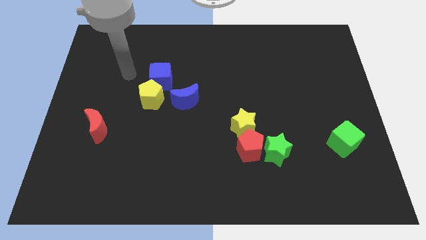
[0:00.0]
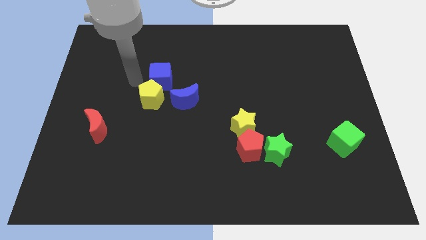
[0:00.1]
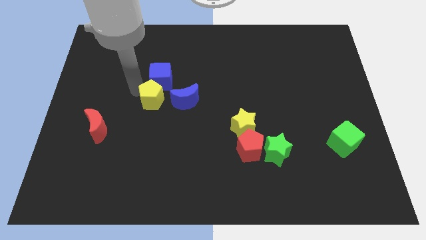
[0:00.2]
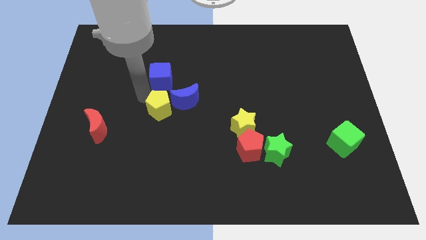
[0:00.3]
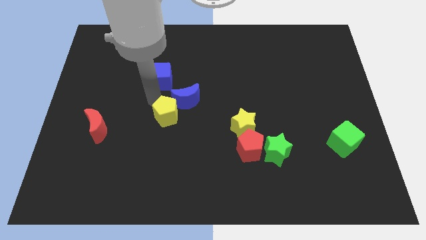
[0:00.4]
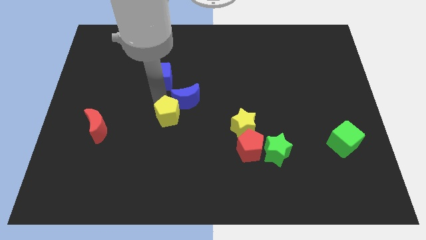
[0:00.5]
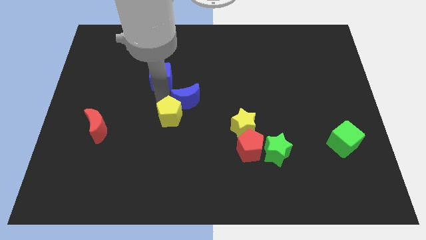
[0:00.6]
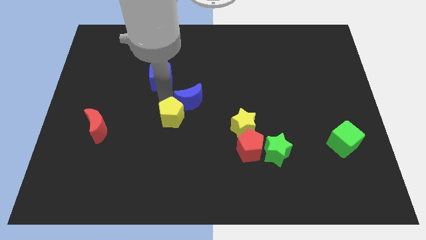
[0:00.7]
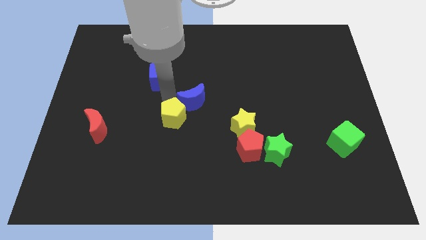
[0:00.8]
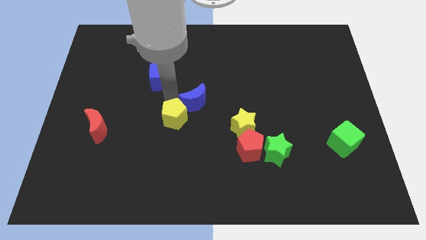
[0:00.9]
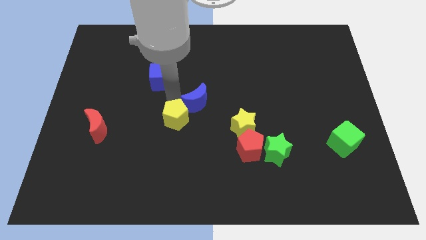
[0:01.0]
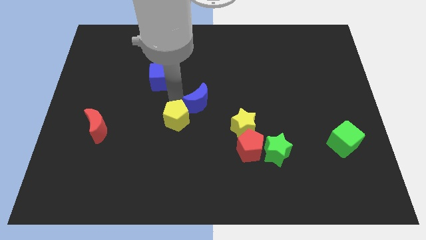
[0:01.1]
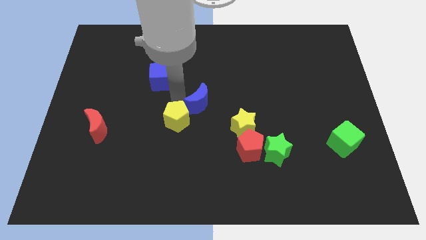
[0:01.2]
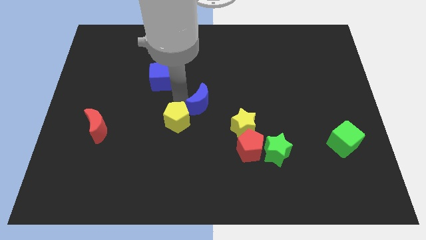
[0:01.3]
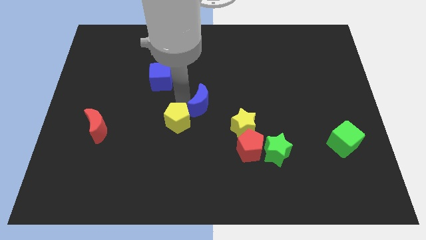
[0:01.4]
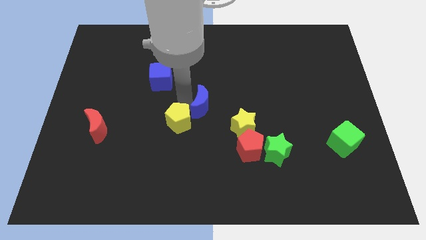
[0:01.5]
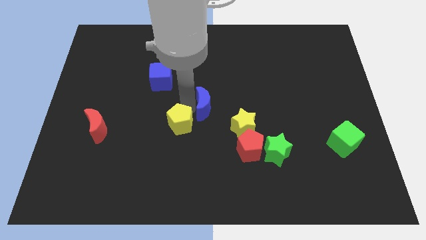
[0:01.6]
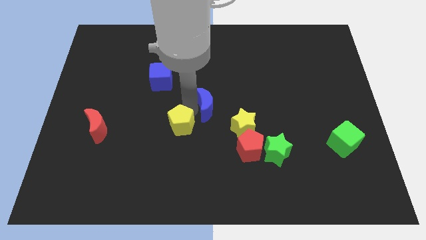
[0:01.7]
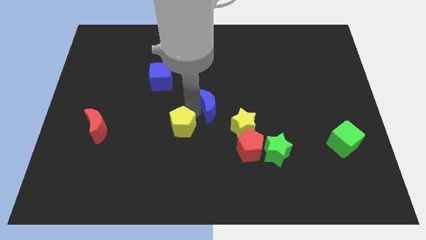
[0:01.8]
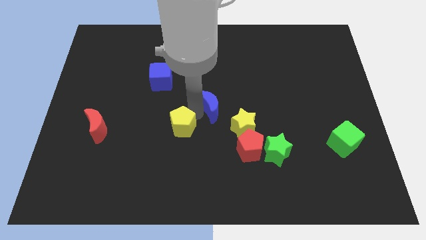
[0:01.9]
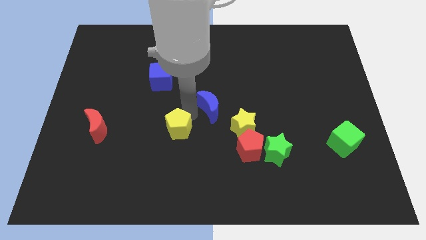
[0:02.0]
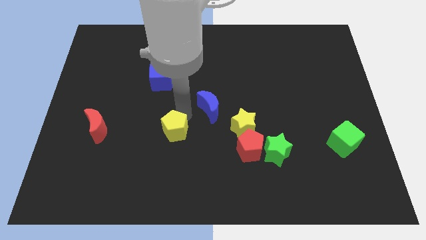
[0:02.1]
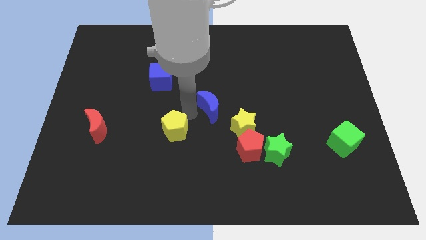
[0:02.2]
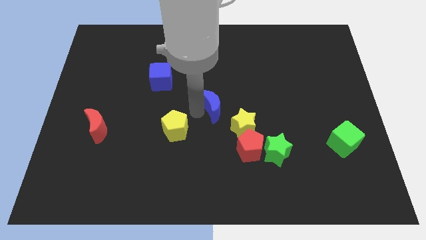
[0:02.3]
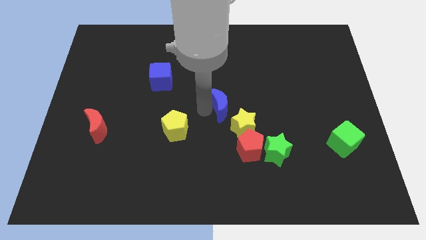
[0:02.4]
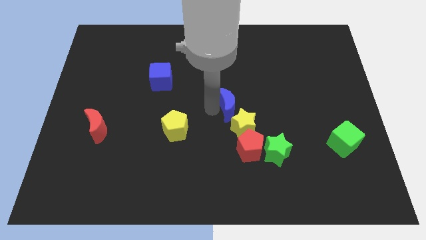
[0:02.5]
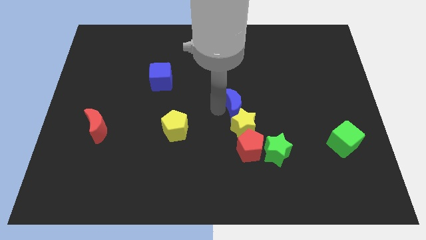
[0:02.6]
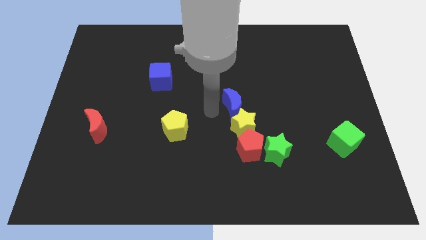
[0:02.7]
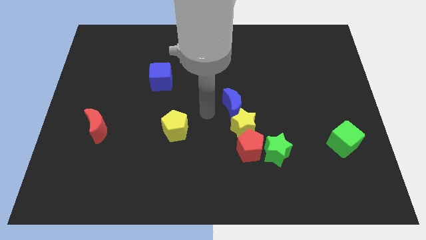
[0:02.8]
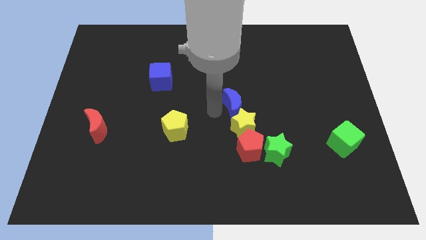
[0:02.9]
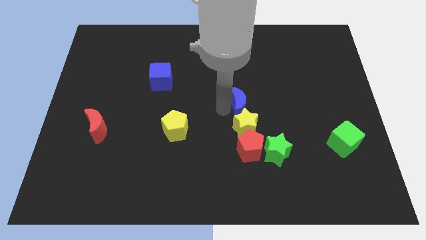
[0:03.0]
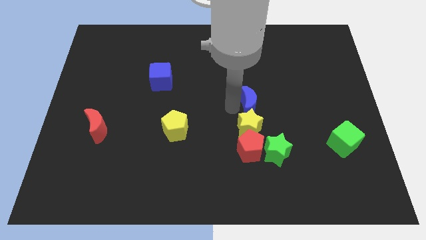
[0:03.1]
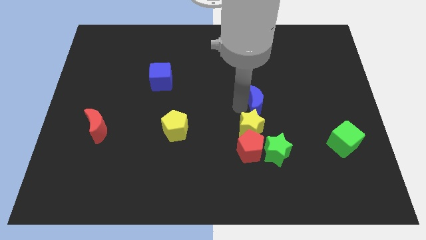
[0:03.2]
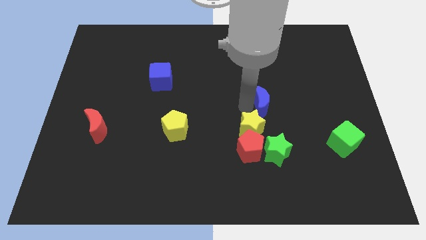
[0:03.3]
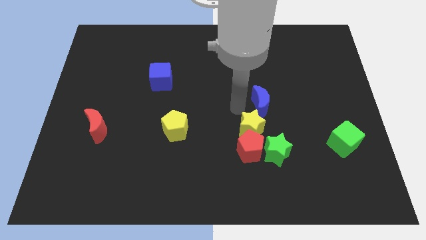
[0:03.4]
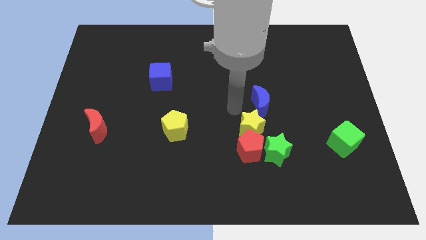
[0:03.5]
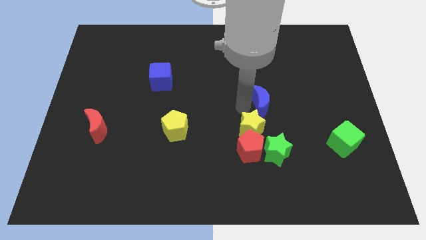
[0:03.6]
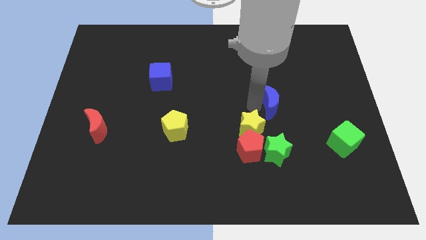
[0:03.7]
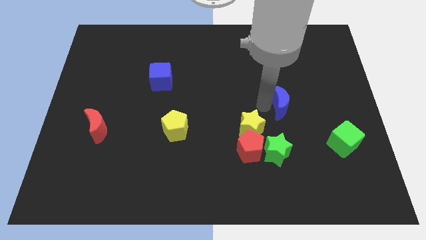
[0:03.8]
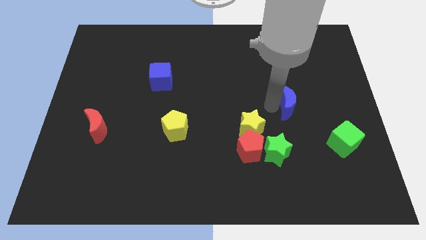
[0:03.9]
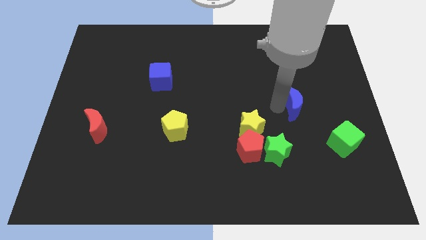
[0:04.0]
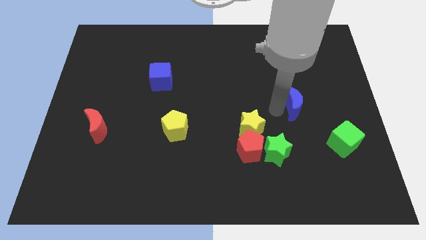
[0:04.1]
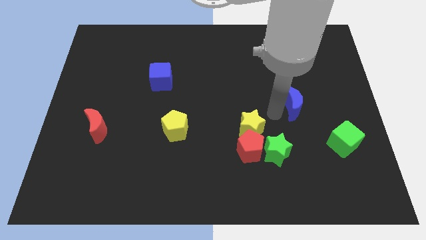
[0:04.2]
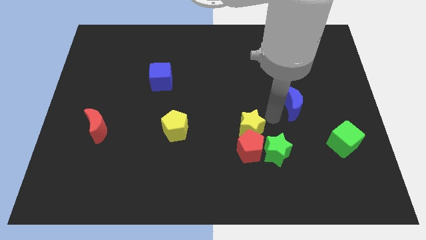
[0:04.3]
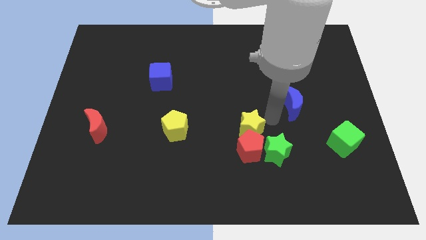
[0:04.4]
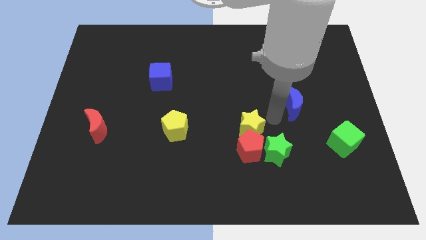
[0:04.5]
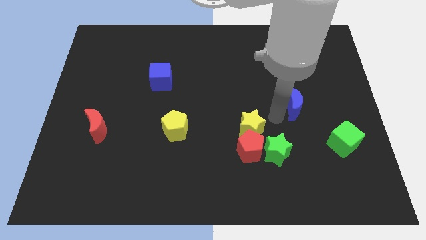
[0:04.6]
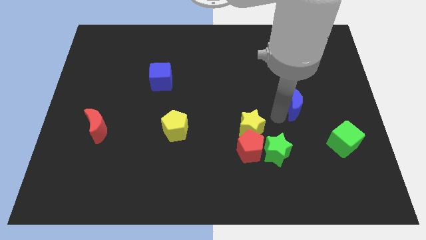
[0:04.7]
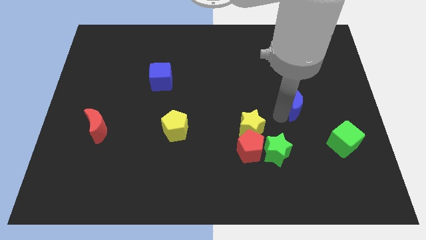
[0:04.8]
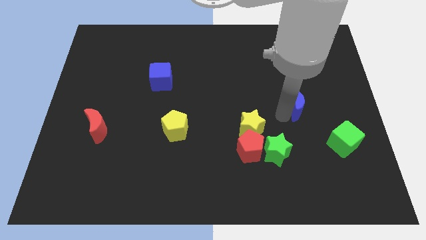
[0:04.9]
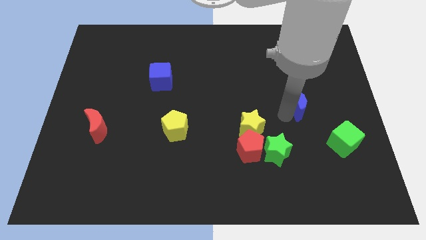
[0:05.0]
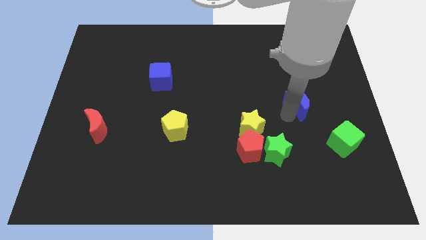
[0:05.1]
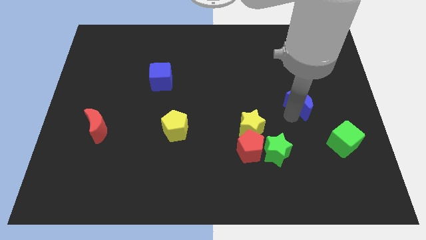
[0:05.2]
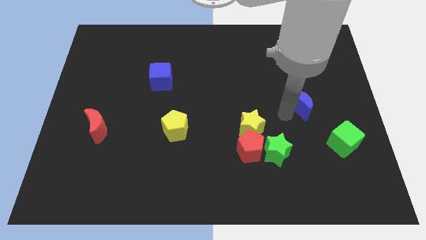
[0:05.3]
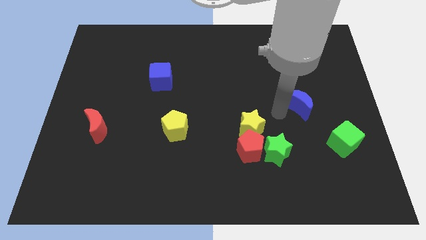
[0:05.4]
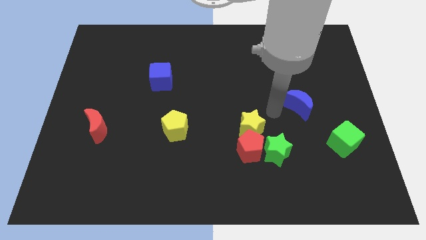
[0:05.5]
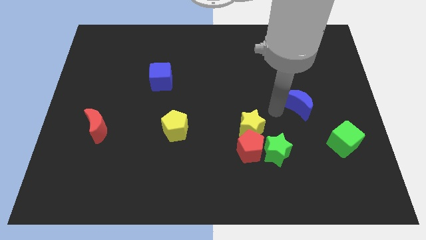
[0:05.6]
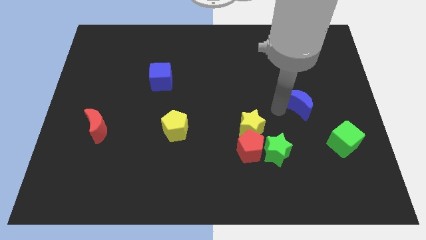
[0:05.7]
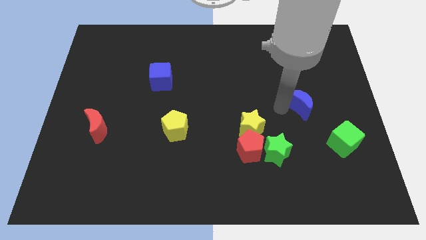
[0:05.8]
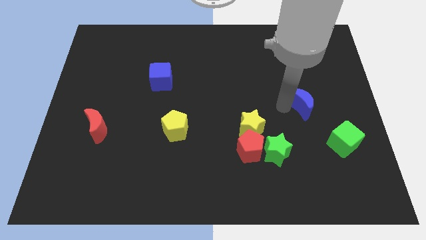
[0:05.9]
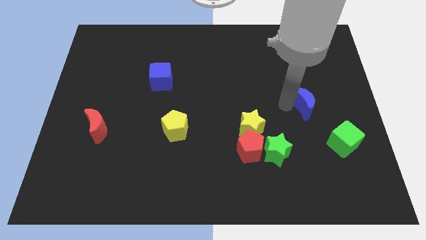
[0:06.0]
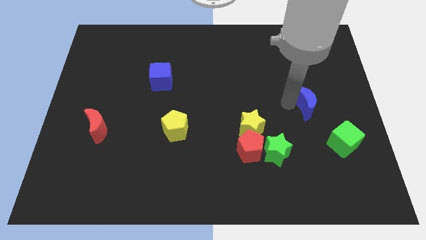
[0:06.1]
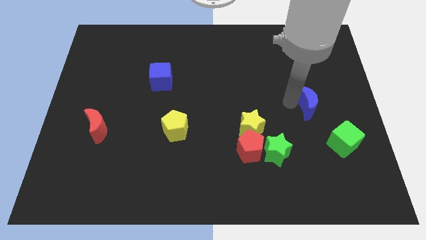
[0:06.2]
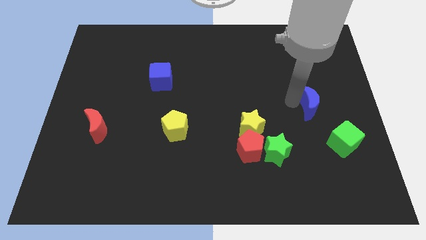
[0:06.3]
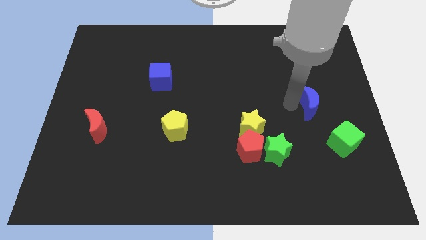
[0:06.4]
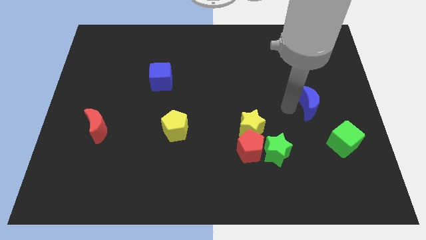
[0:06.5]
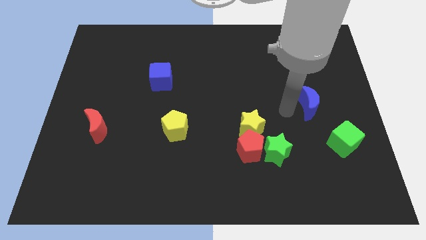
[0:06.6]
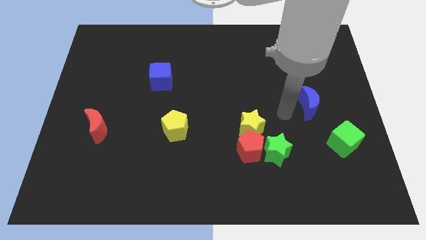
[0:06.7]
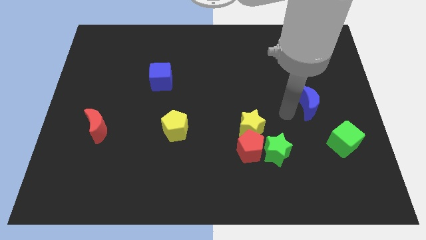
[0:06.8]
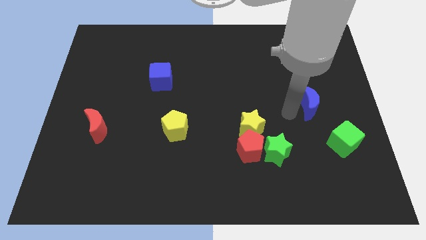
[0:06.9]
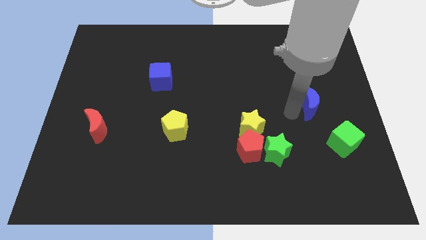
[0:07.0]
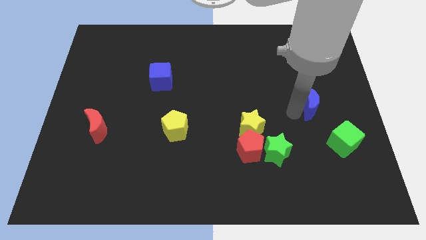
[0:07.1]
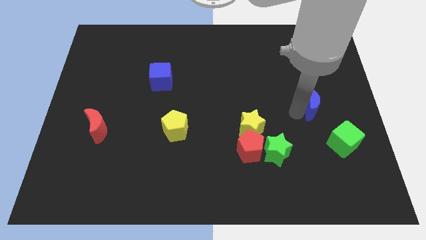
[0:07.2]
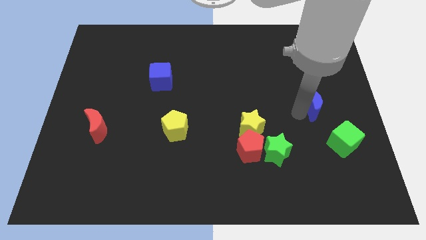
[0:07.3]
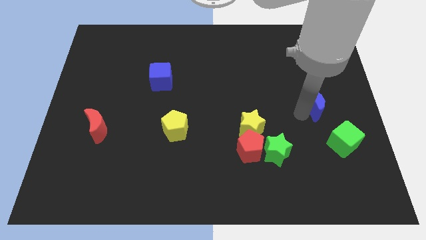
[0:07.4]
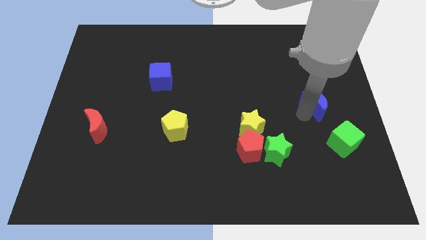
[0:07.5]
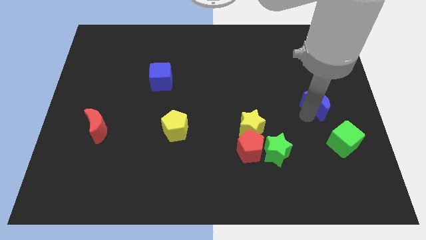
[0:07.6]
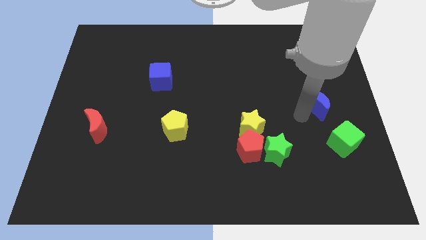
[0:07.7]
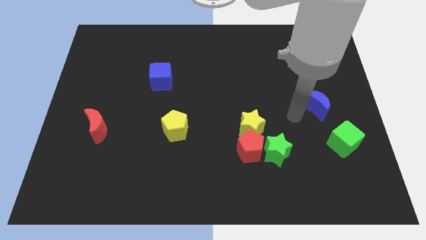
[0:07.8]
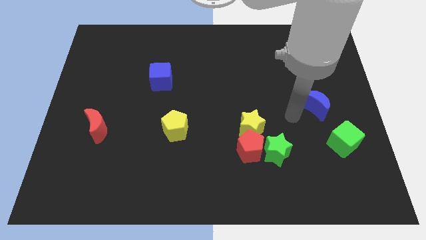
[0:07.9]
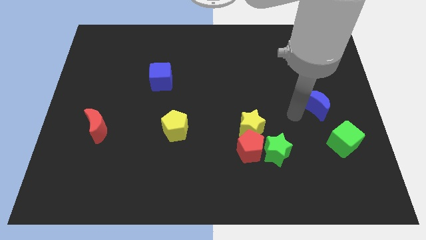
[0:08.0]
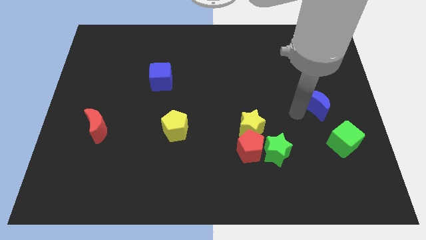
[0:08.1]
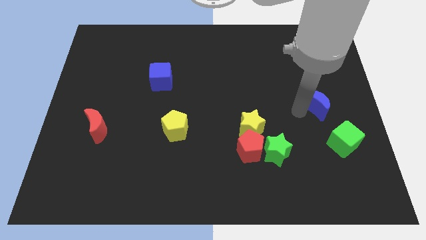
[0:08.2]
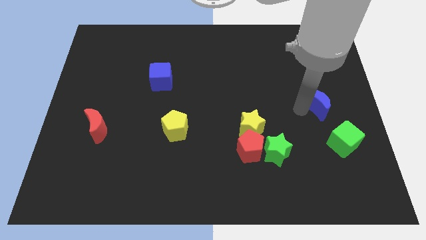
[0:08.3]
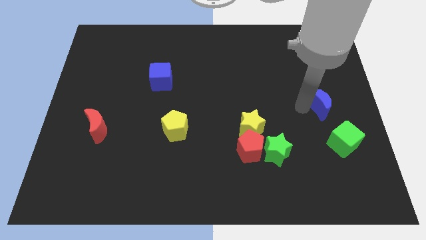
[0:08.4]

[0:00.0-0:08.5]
move the blue moon to the center right
